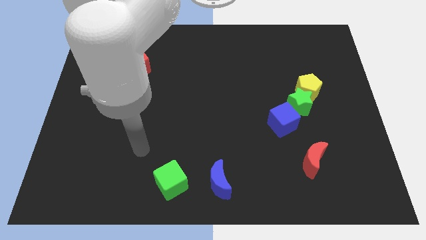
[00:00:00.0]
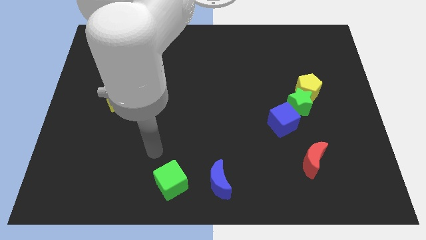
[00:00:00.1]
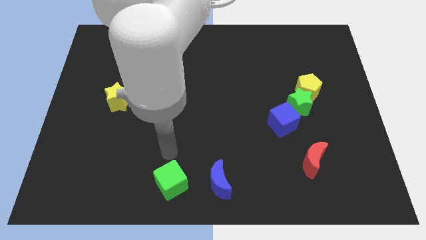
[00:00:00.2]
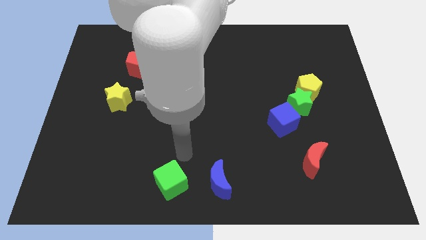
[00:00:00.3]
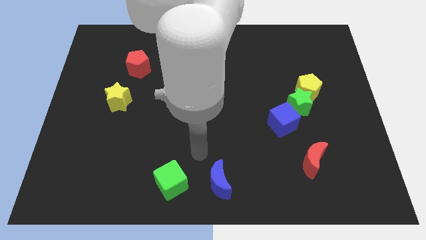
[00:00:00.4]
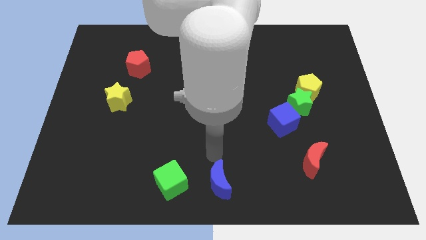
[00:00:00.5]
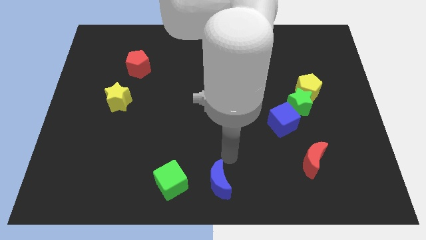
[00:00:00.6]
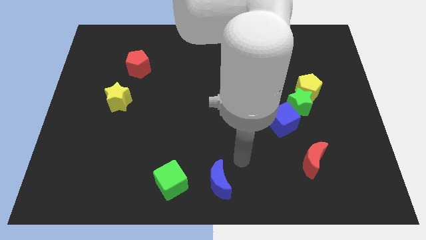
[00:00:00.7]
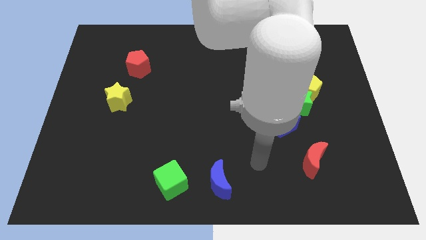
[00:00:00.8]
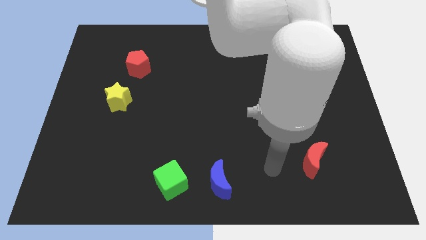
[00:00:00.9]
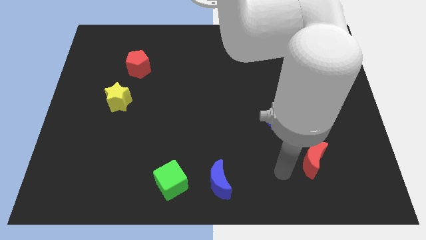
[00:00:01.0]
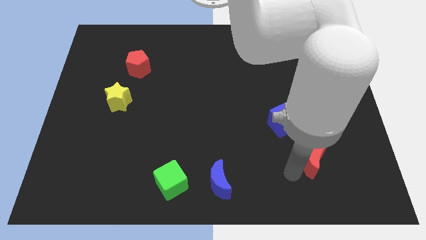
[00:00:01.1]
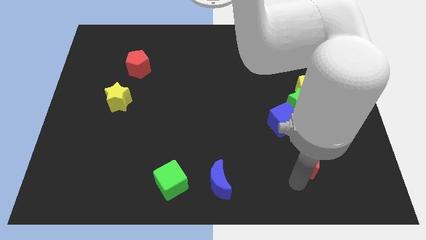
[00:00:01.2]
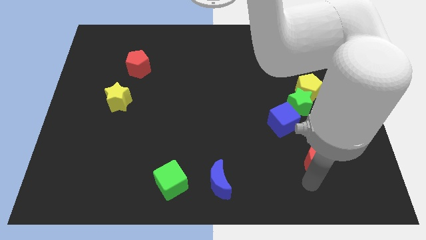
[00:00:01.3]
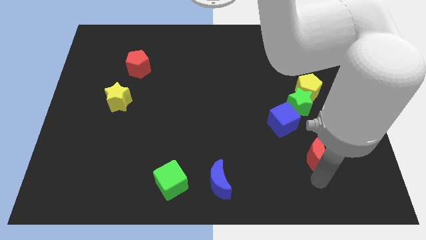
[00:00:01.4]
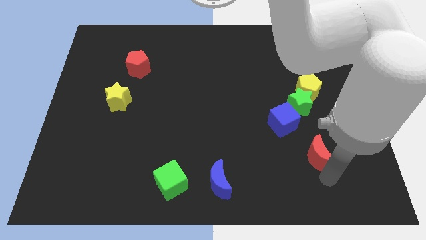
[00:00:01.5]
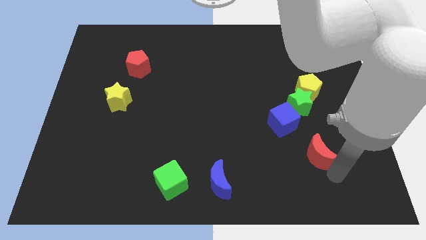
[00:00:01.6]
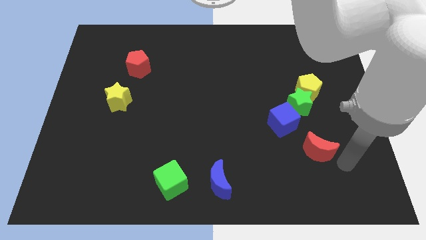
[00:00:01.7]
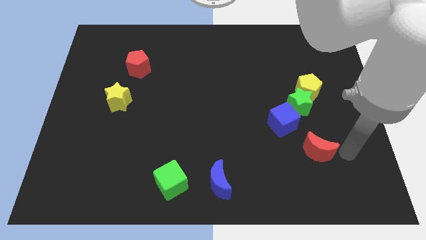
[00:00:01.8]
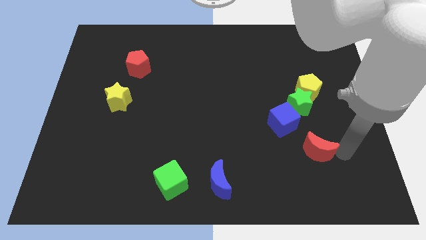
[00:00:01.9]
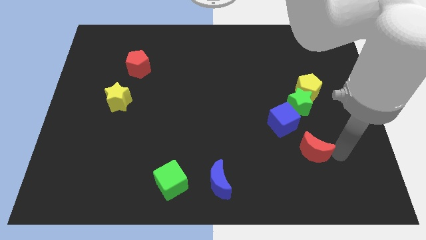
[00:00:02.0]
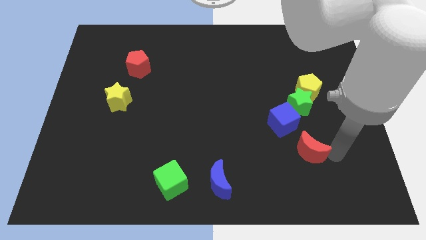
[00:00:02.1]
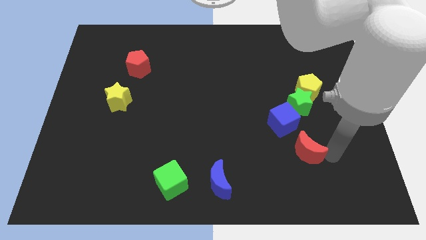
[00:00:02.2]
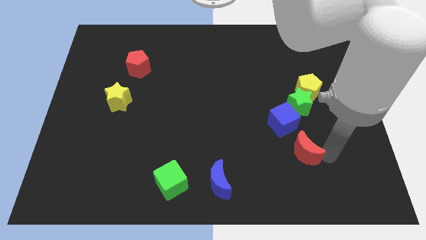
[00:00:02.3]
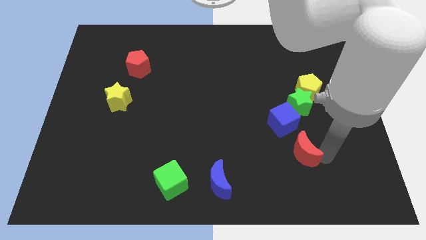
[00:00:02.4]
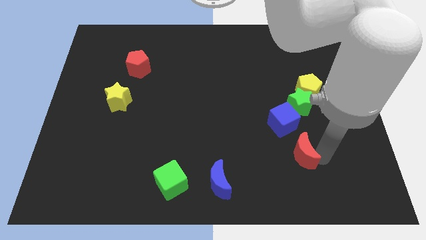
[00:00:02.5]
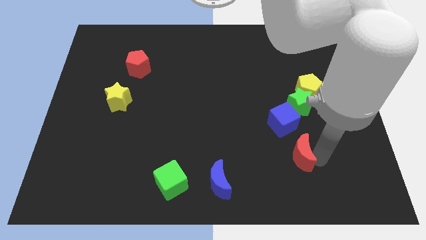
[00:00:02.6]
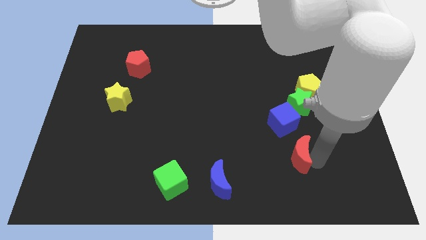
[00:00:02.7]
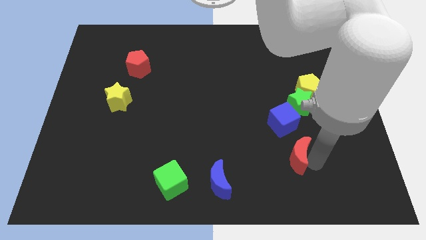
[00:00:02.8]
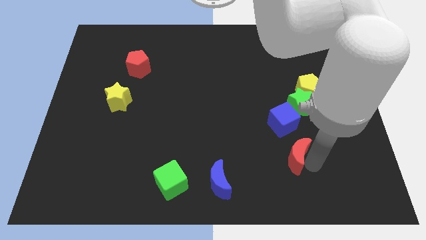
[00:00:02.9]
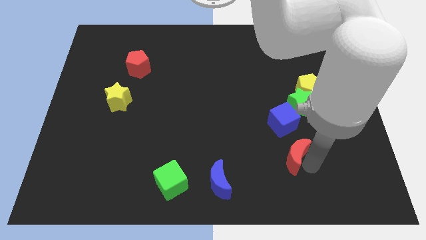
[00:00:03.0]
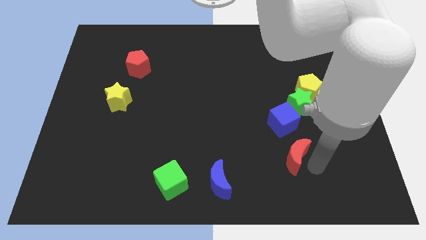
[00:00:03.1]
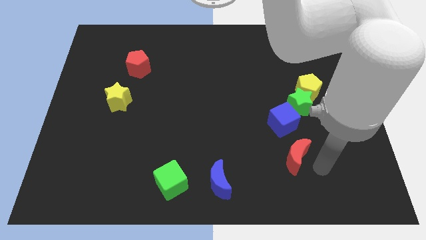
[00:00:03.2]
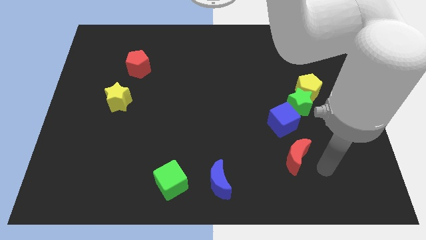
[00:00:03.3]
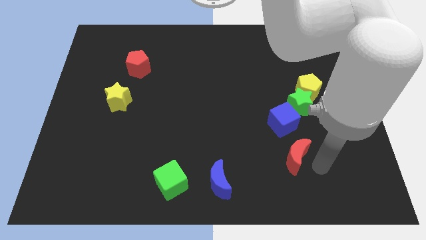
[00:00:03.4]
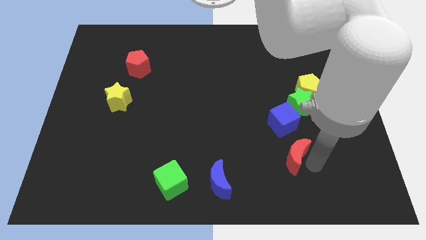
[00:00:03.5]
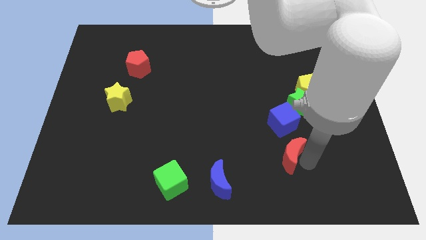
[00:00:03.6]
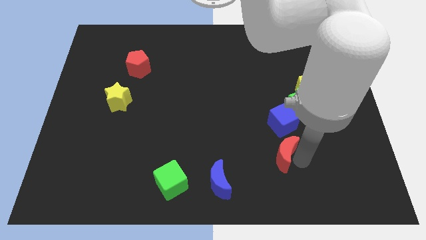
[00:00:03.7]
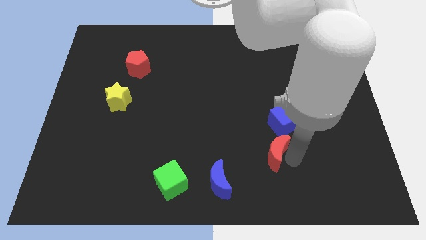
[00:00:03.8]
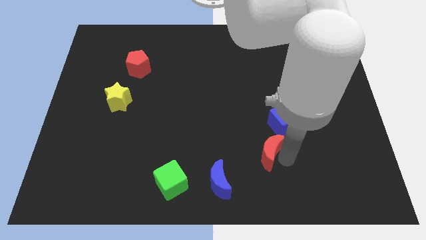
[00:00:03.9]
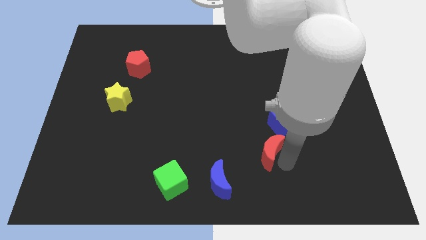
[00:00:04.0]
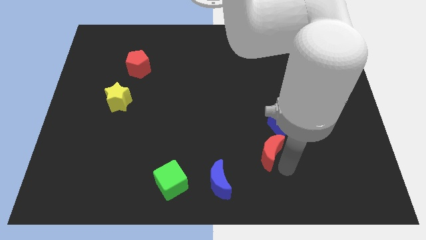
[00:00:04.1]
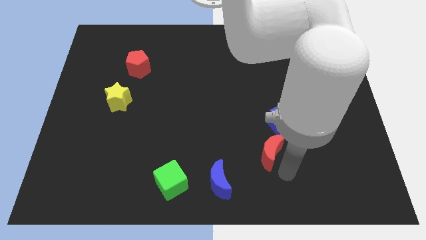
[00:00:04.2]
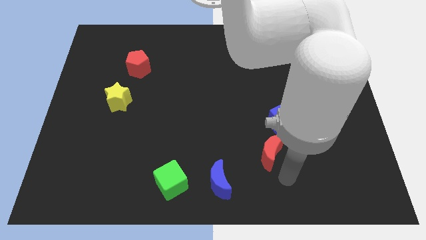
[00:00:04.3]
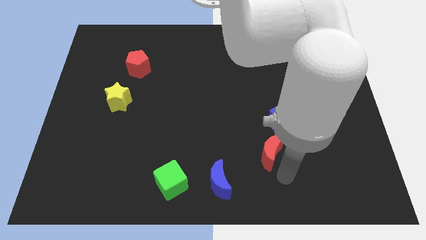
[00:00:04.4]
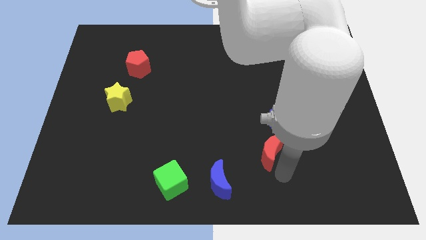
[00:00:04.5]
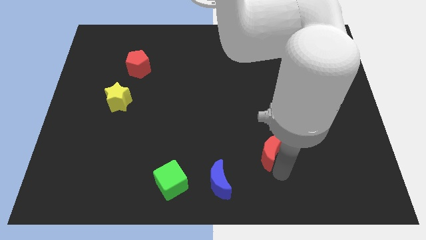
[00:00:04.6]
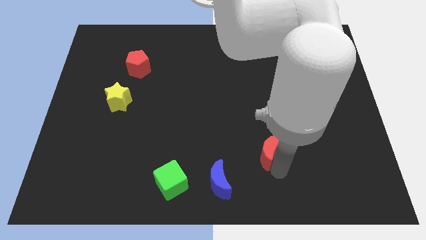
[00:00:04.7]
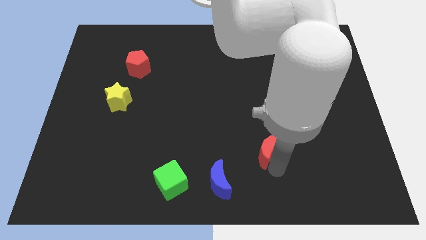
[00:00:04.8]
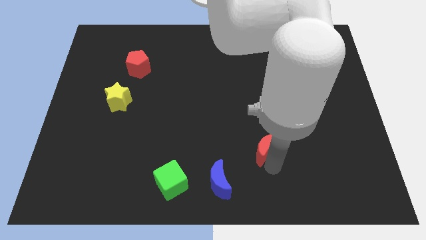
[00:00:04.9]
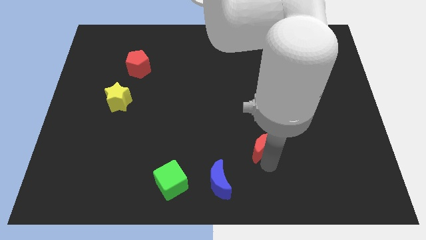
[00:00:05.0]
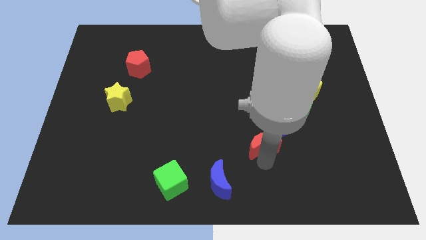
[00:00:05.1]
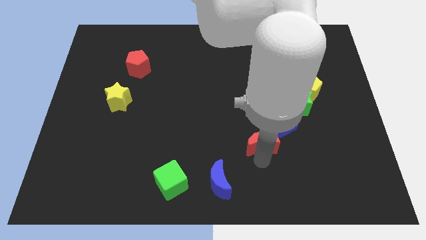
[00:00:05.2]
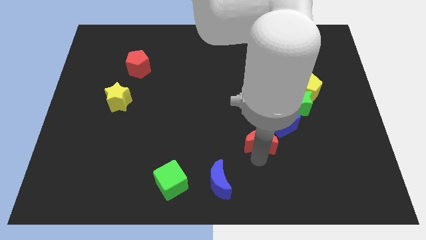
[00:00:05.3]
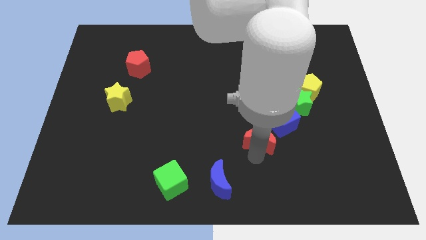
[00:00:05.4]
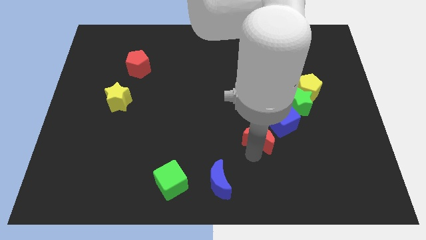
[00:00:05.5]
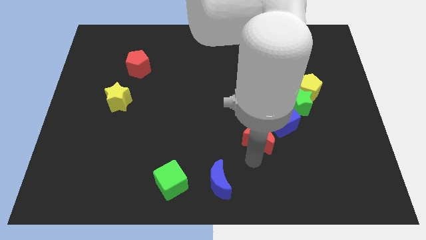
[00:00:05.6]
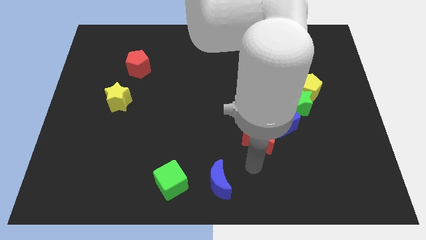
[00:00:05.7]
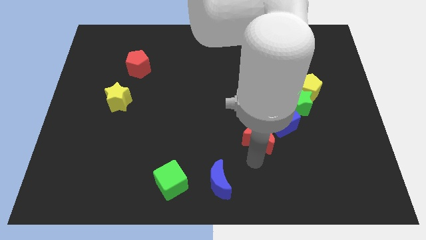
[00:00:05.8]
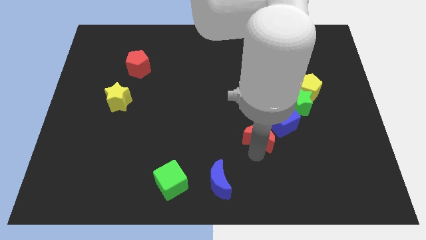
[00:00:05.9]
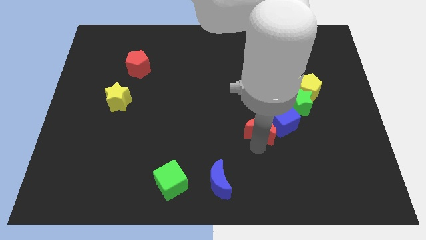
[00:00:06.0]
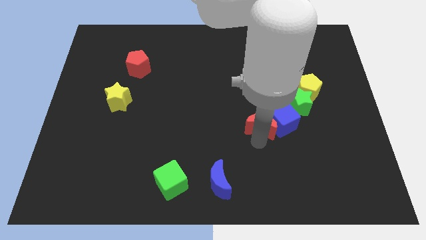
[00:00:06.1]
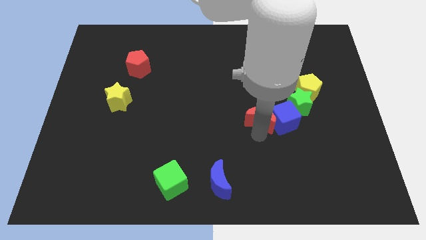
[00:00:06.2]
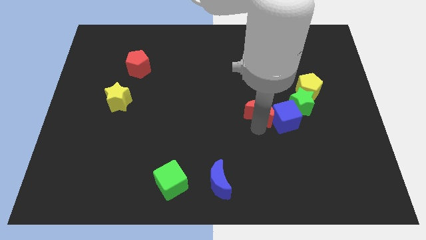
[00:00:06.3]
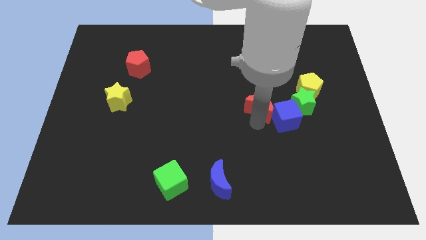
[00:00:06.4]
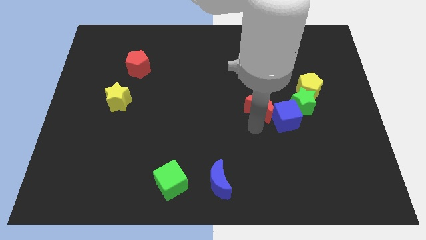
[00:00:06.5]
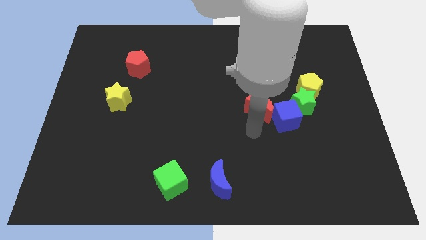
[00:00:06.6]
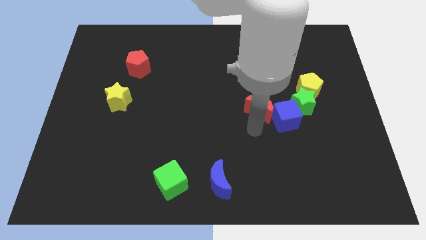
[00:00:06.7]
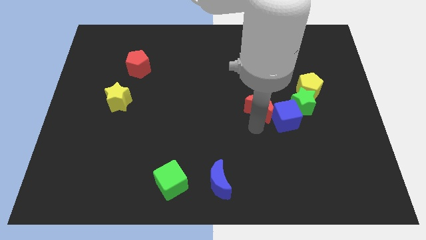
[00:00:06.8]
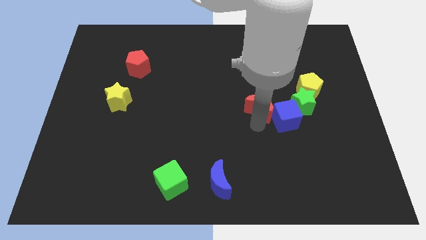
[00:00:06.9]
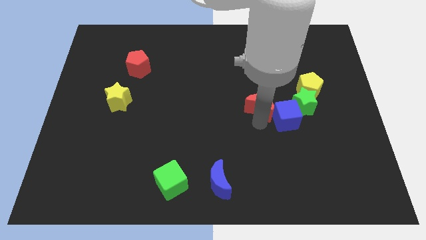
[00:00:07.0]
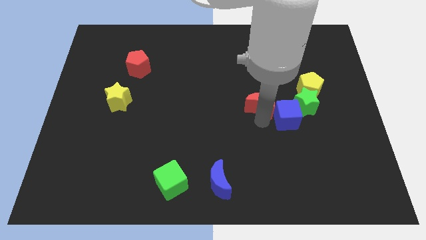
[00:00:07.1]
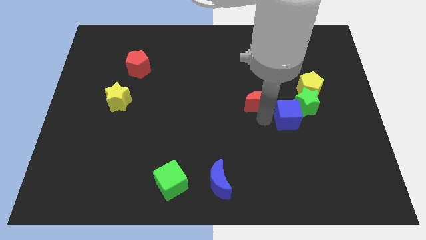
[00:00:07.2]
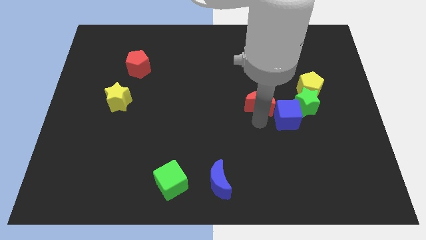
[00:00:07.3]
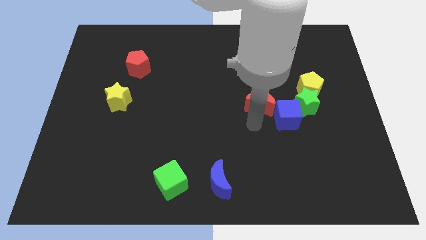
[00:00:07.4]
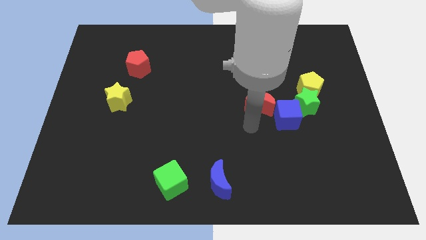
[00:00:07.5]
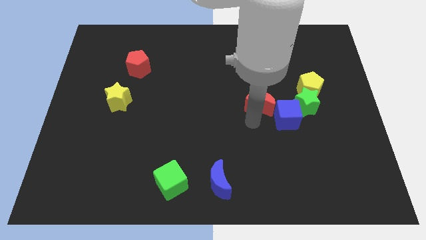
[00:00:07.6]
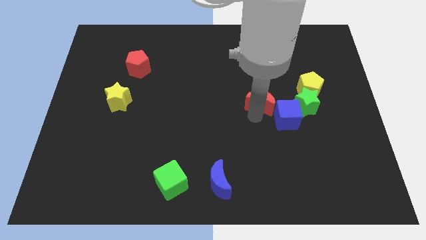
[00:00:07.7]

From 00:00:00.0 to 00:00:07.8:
push the red moon to the left of the yellow pentagon
